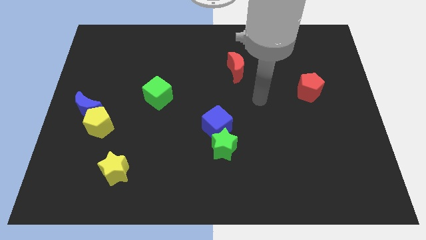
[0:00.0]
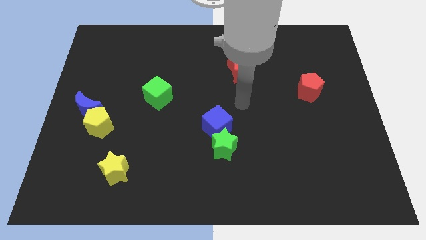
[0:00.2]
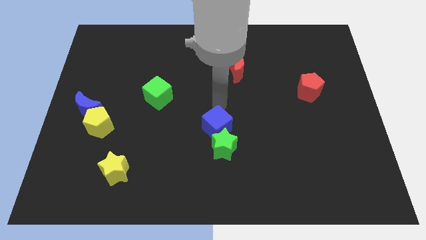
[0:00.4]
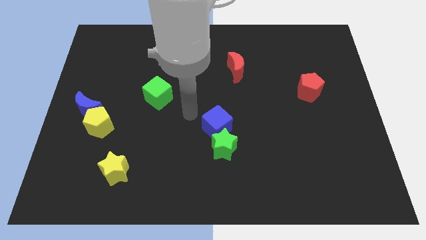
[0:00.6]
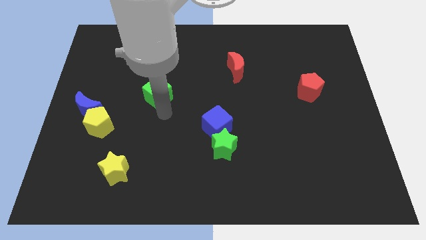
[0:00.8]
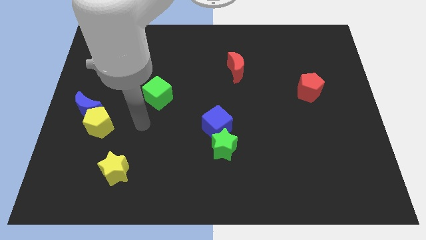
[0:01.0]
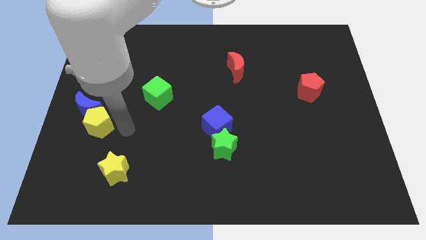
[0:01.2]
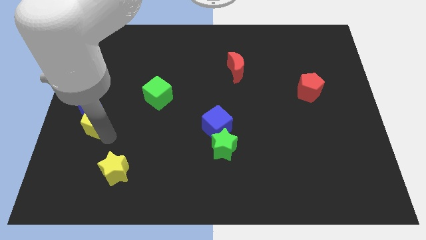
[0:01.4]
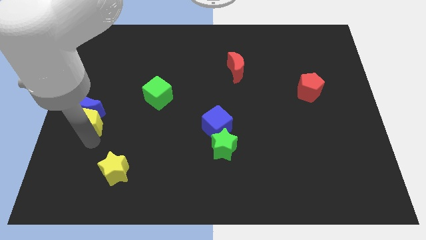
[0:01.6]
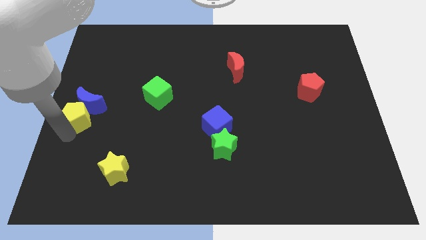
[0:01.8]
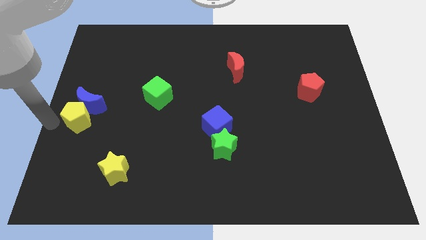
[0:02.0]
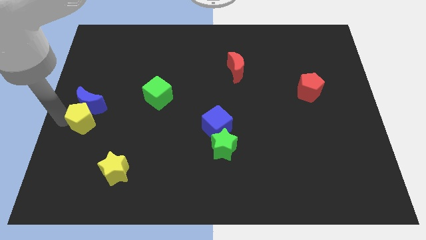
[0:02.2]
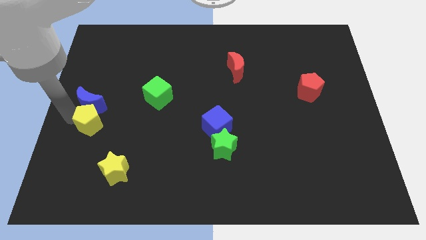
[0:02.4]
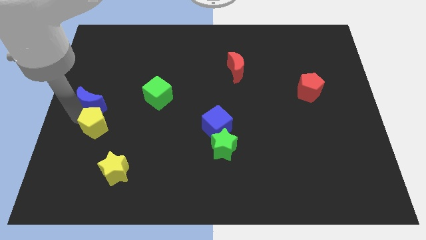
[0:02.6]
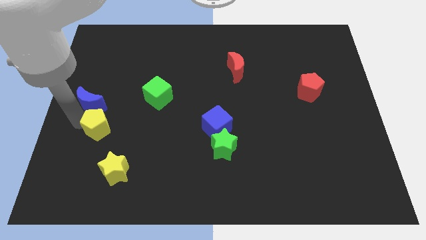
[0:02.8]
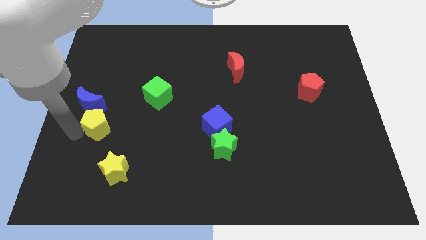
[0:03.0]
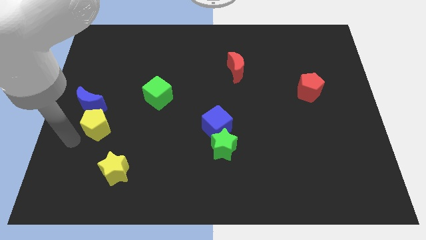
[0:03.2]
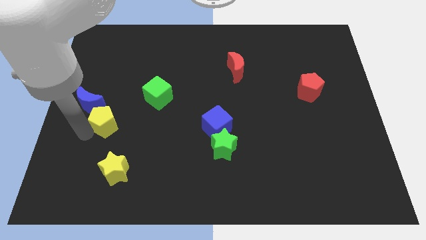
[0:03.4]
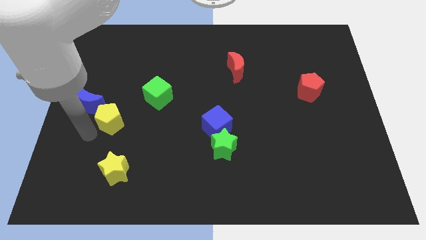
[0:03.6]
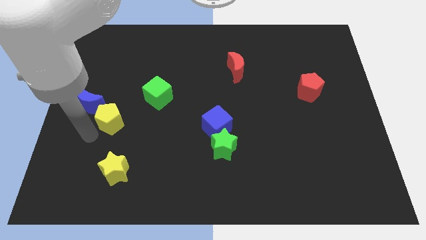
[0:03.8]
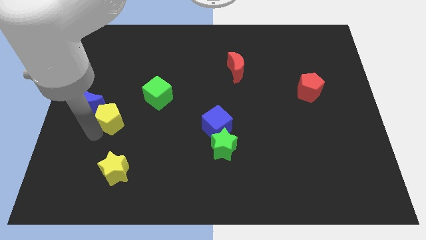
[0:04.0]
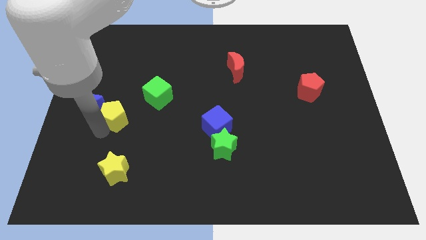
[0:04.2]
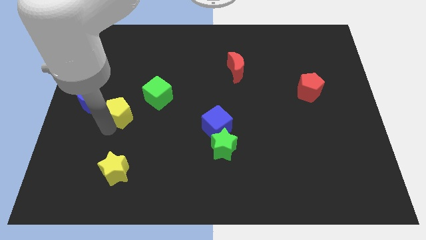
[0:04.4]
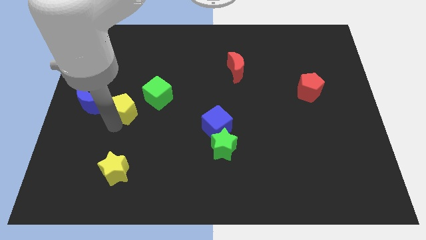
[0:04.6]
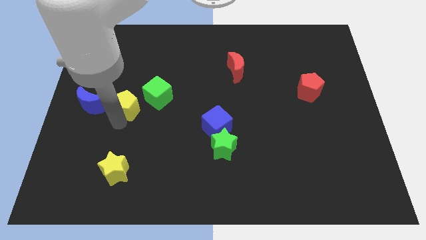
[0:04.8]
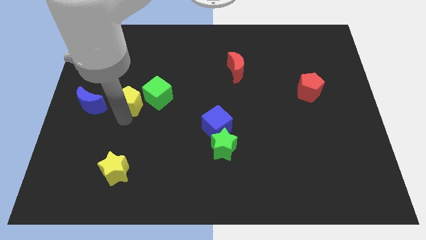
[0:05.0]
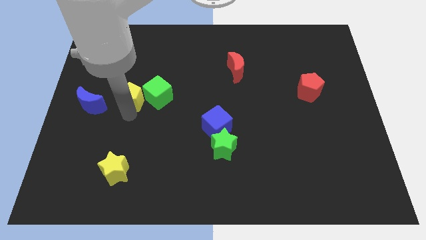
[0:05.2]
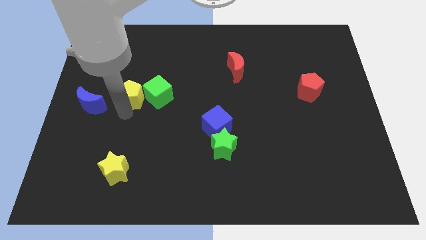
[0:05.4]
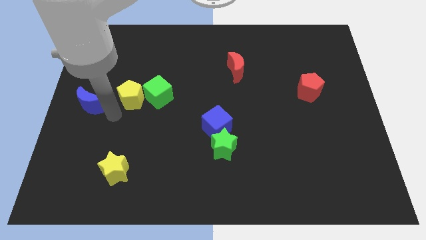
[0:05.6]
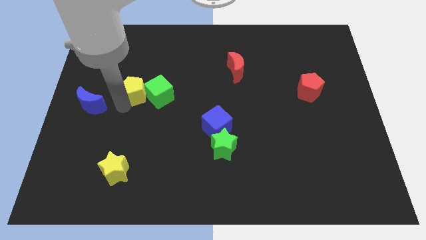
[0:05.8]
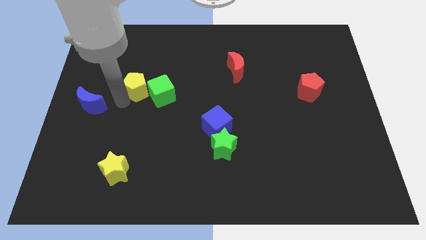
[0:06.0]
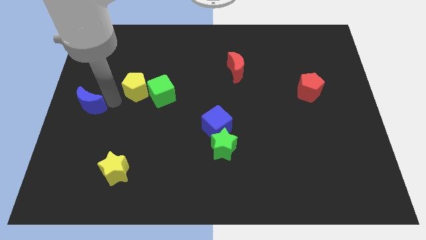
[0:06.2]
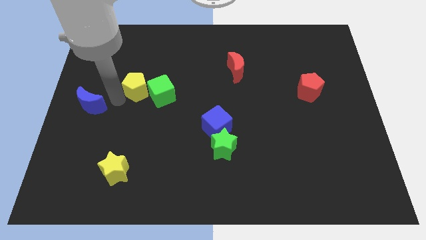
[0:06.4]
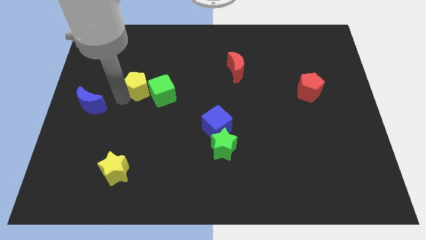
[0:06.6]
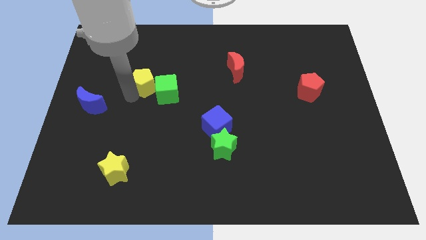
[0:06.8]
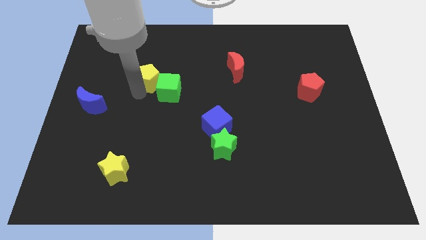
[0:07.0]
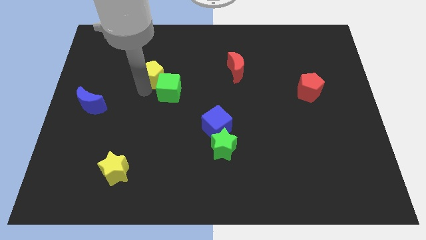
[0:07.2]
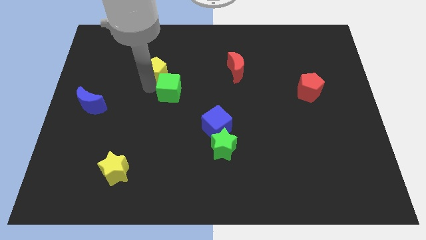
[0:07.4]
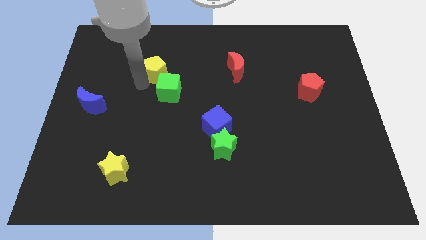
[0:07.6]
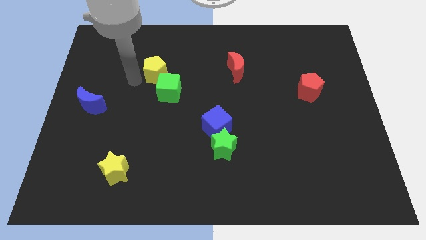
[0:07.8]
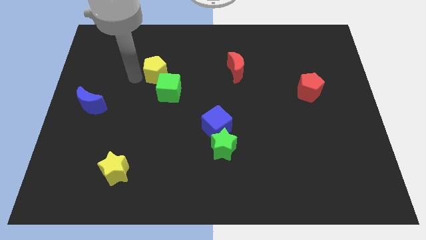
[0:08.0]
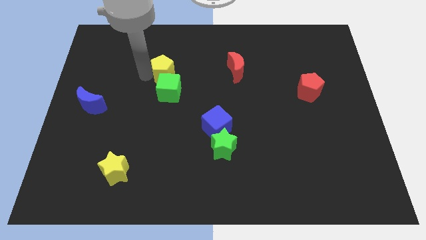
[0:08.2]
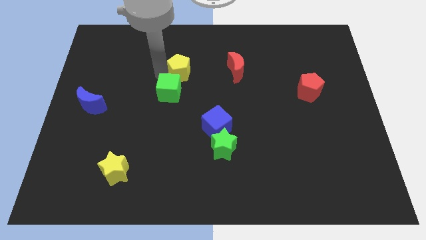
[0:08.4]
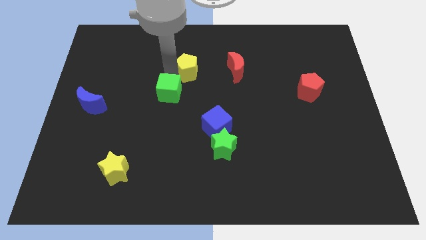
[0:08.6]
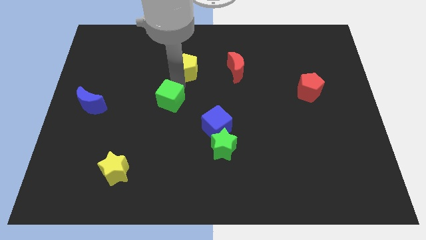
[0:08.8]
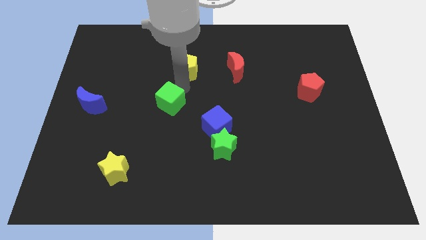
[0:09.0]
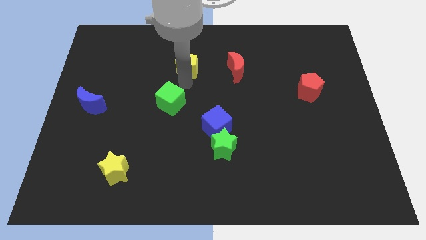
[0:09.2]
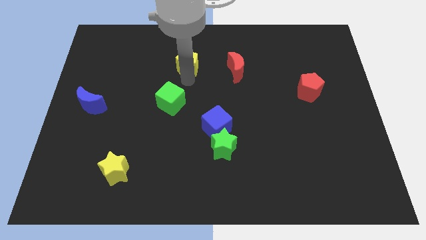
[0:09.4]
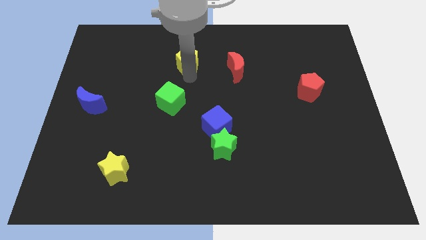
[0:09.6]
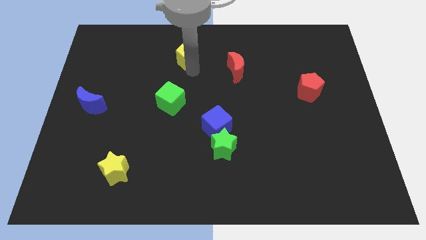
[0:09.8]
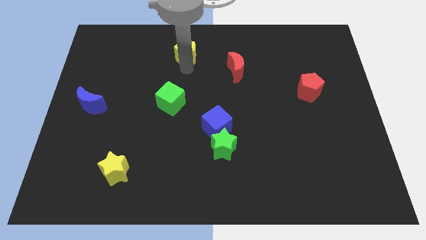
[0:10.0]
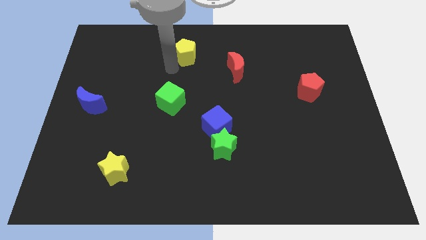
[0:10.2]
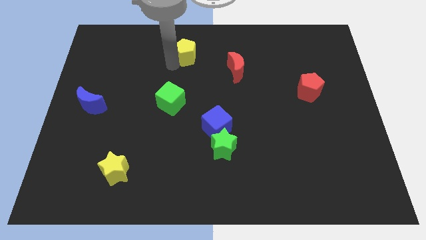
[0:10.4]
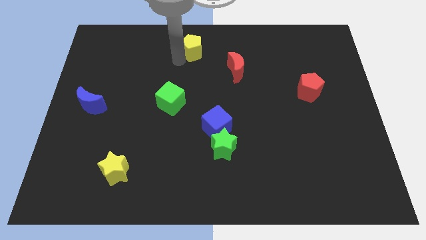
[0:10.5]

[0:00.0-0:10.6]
move the yellow pentagon to the top side

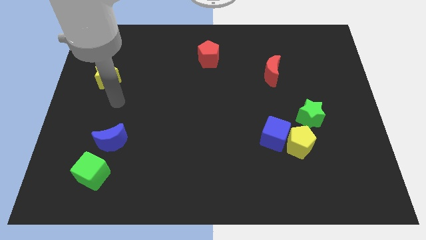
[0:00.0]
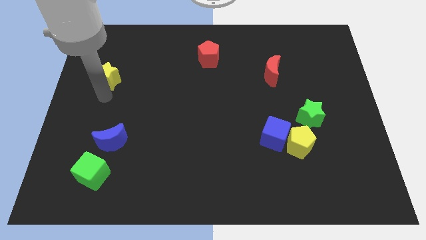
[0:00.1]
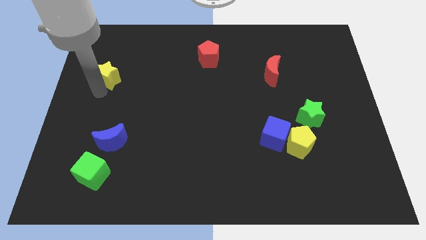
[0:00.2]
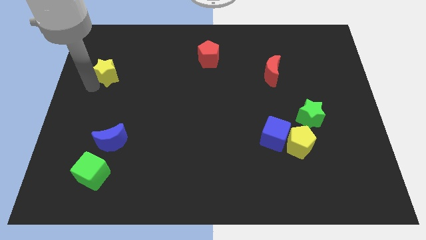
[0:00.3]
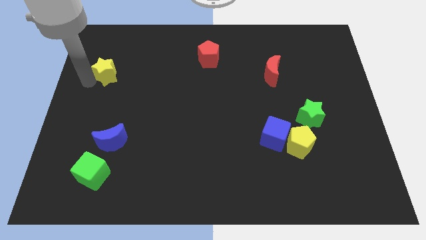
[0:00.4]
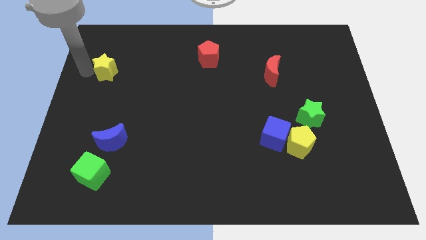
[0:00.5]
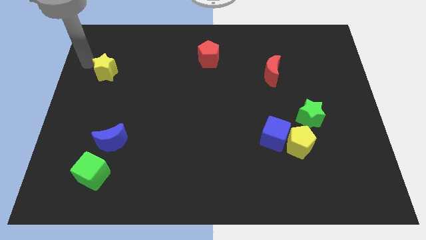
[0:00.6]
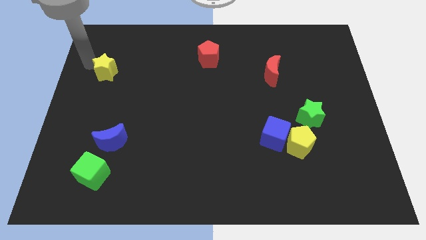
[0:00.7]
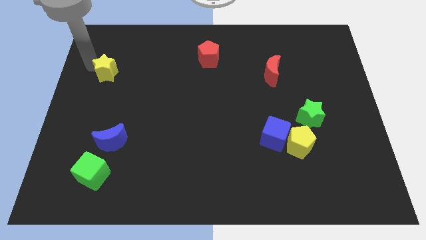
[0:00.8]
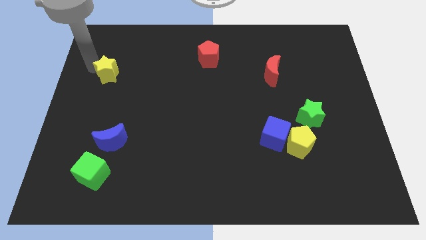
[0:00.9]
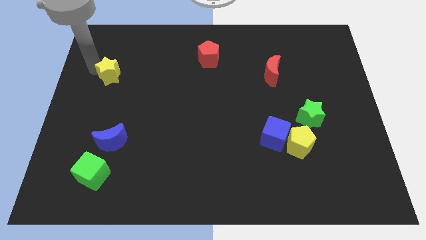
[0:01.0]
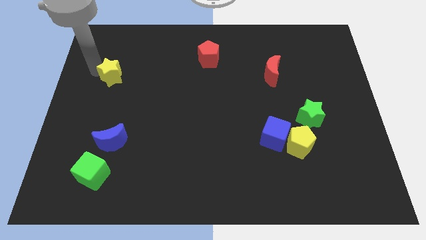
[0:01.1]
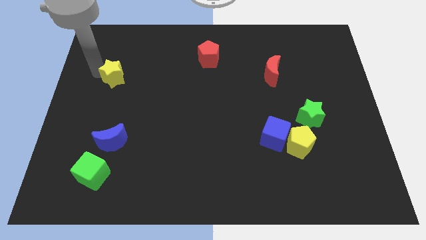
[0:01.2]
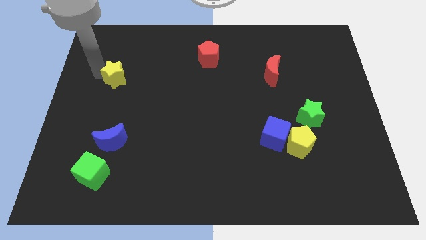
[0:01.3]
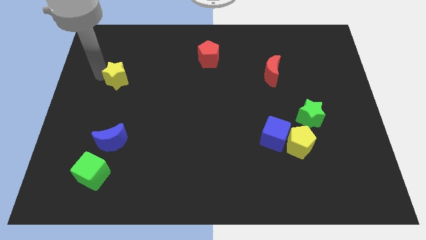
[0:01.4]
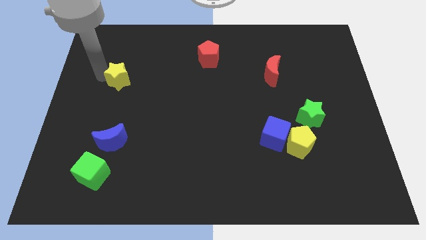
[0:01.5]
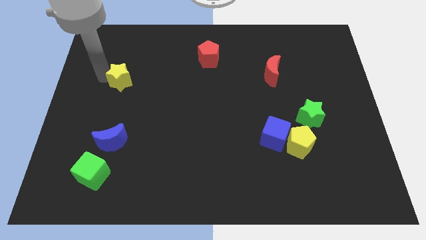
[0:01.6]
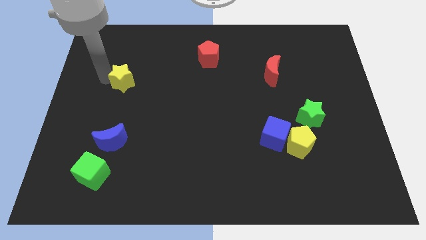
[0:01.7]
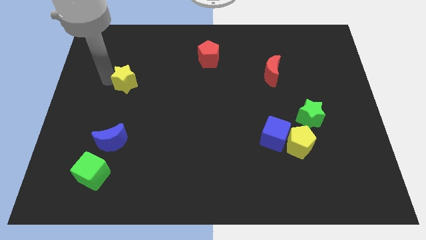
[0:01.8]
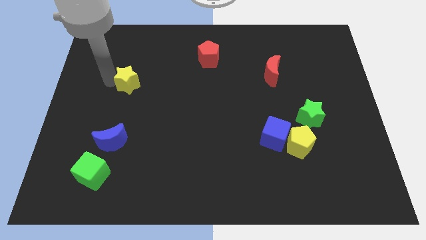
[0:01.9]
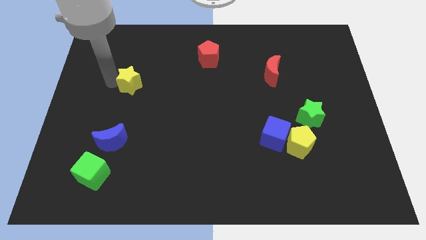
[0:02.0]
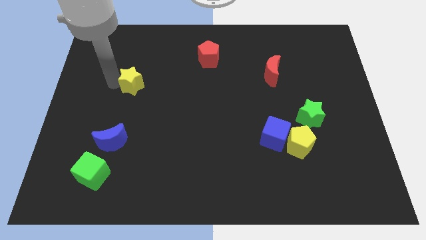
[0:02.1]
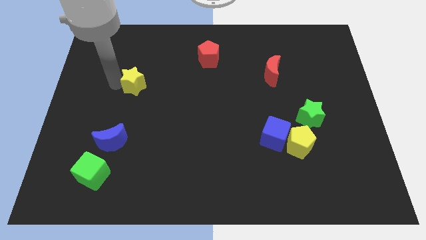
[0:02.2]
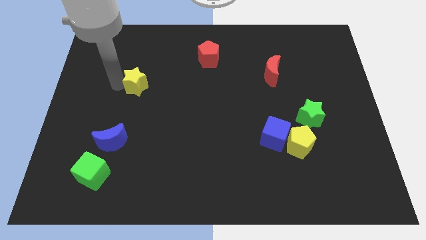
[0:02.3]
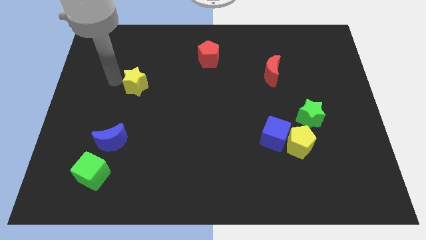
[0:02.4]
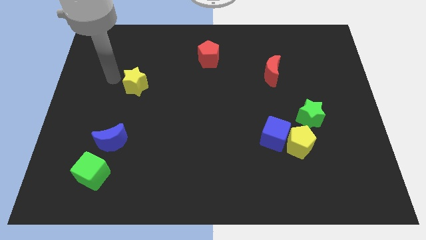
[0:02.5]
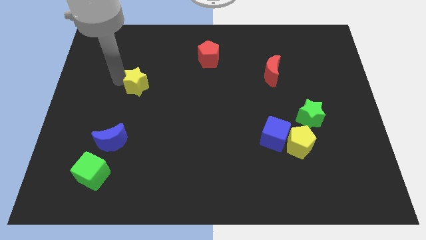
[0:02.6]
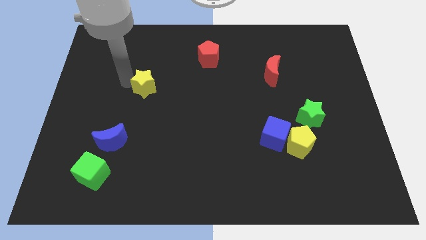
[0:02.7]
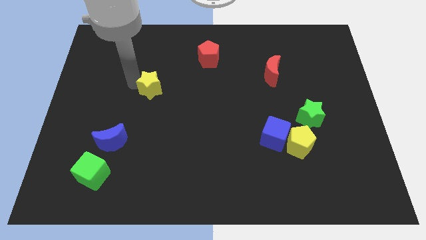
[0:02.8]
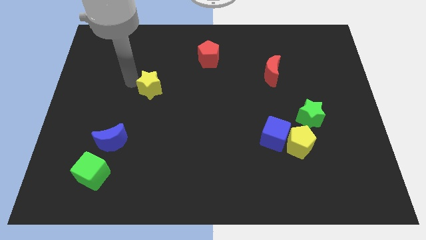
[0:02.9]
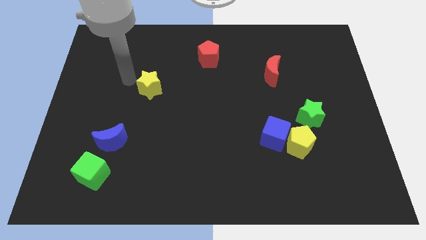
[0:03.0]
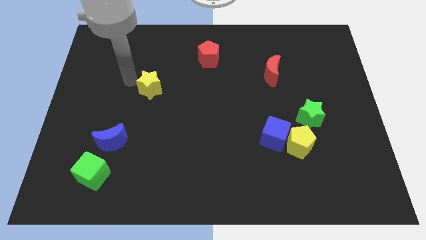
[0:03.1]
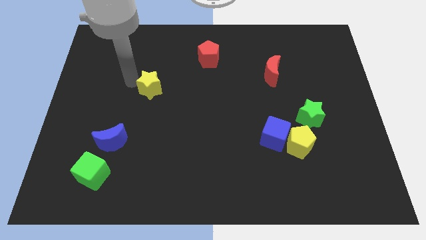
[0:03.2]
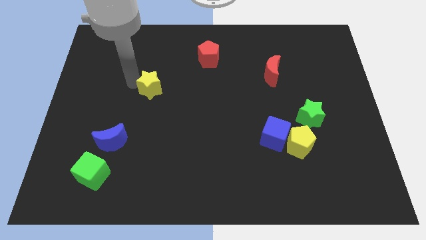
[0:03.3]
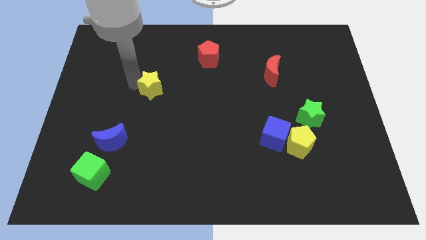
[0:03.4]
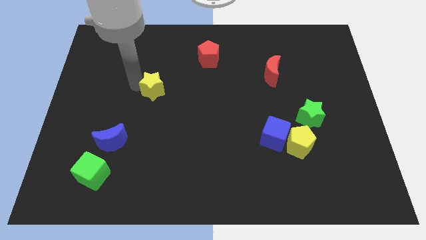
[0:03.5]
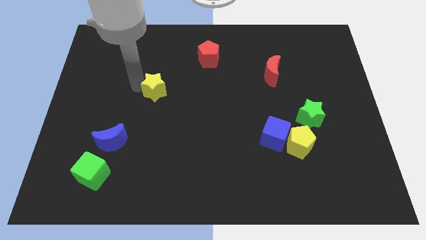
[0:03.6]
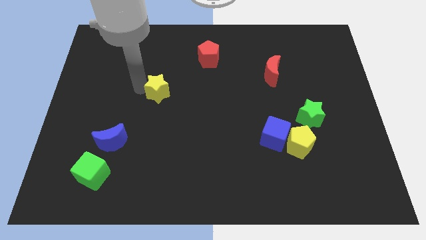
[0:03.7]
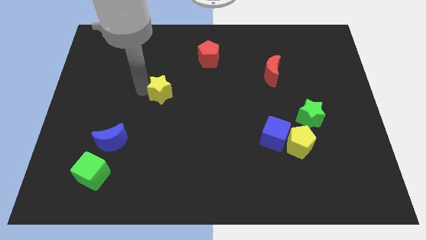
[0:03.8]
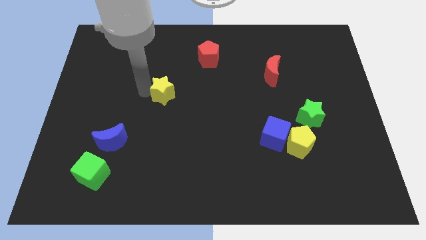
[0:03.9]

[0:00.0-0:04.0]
put the yellow star to the center
